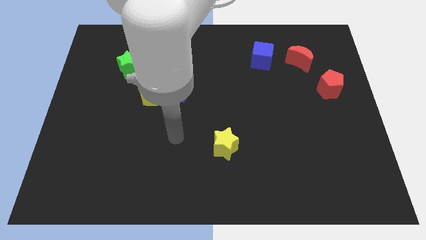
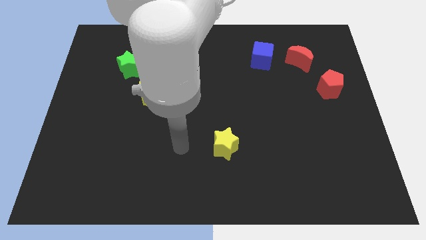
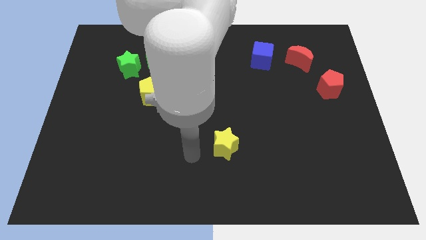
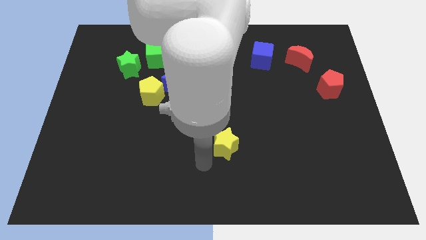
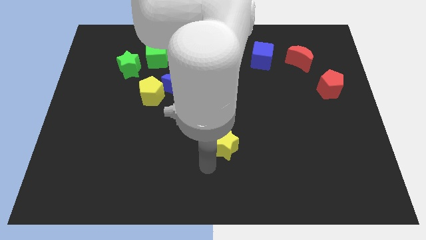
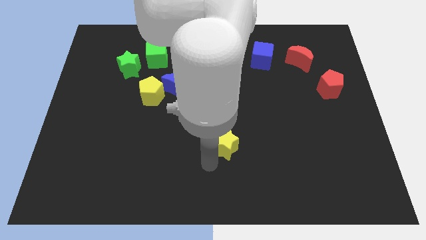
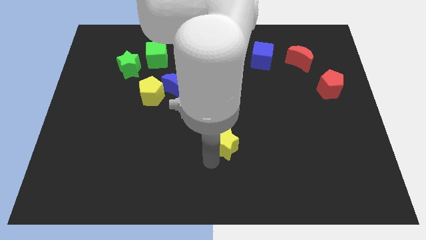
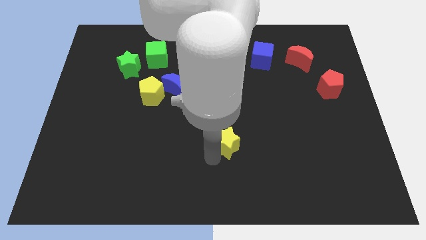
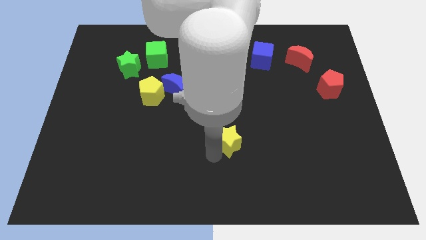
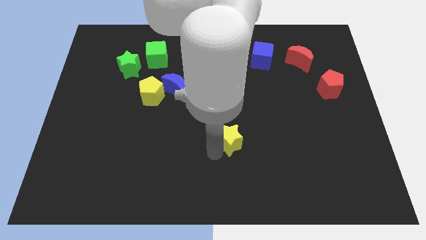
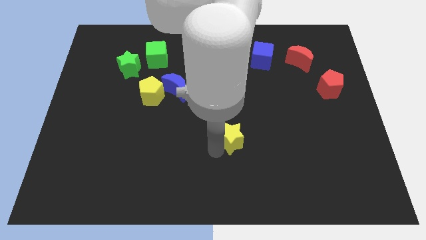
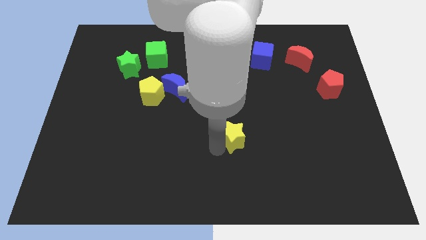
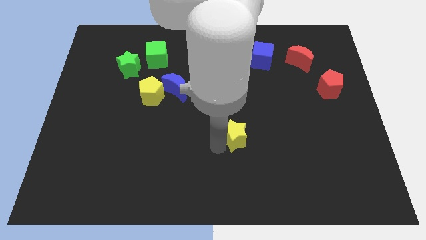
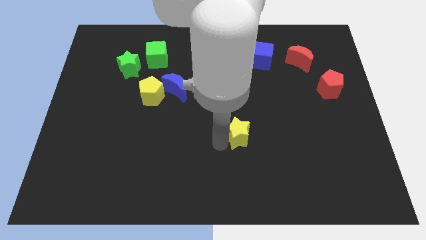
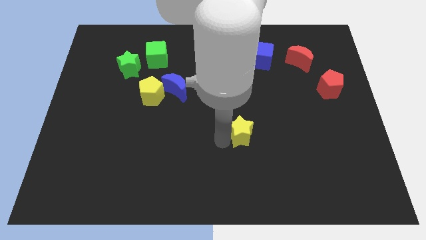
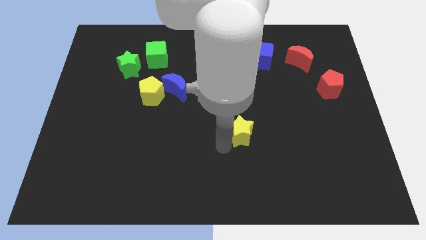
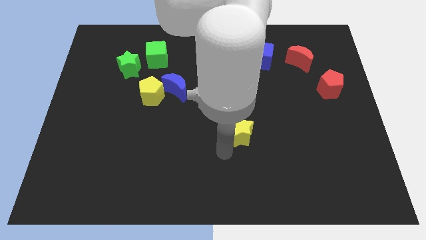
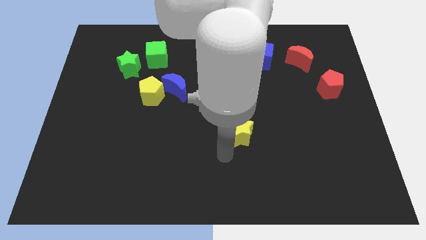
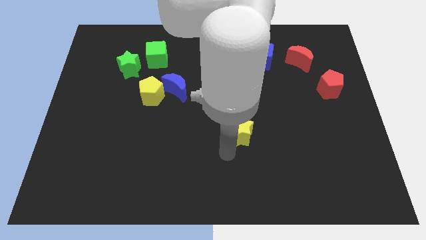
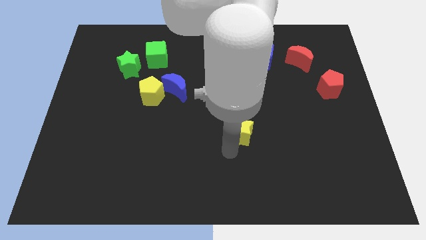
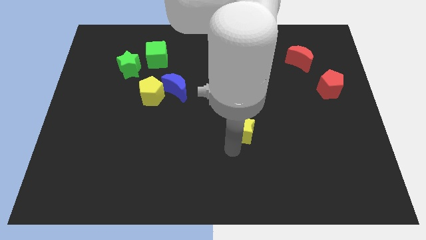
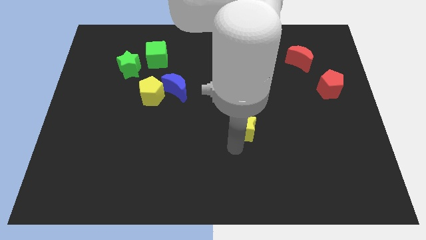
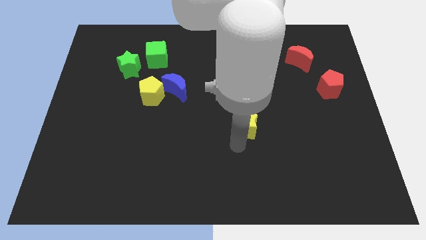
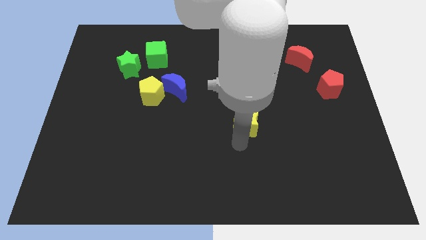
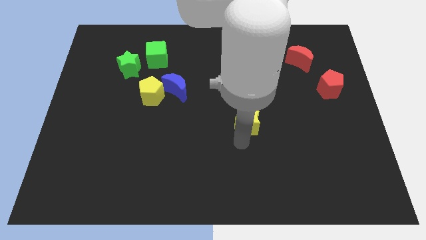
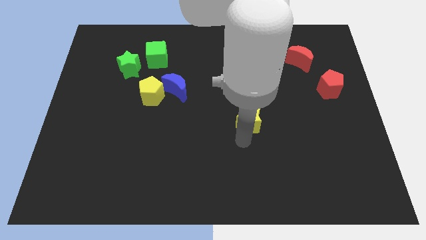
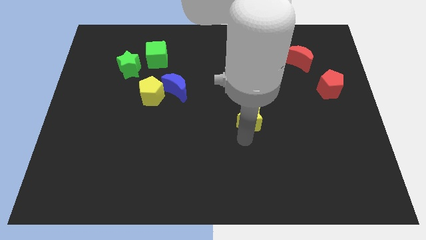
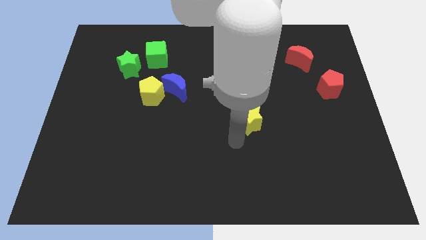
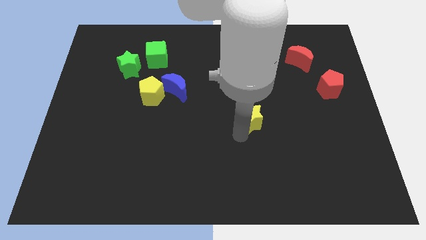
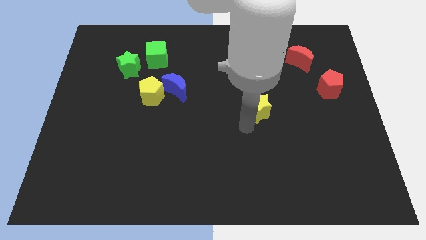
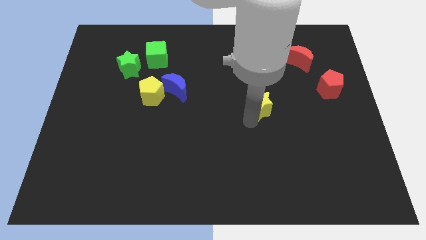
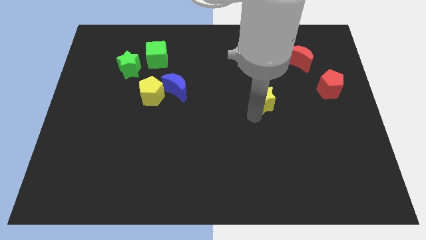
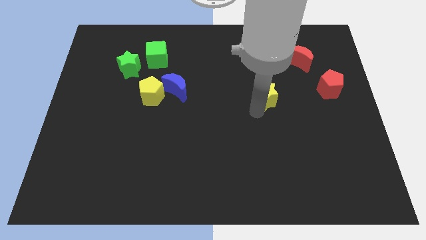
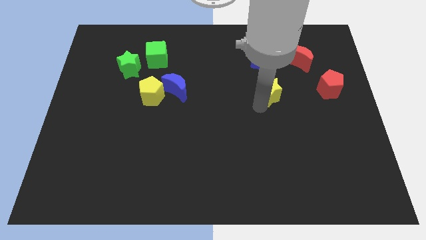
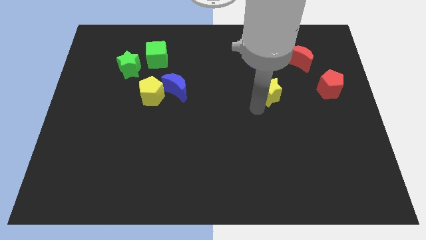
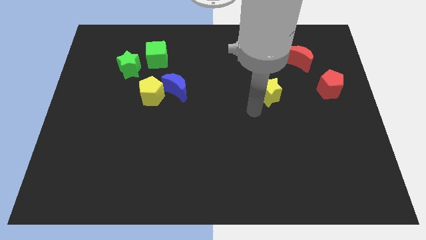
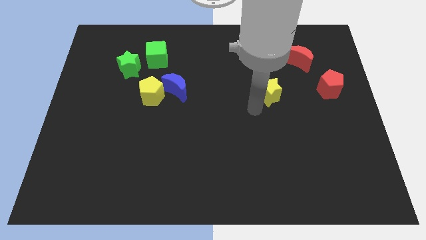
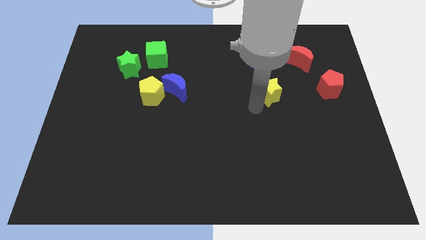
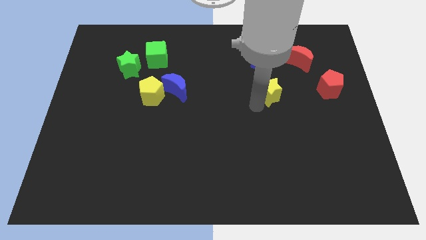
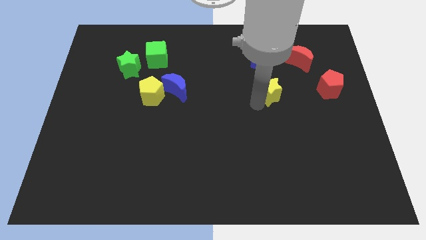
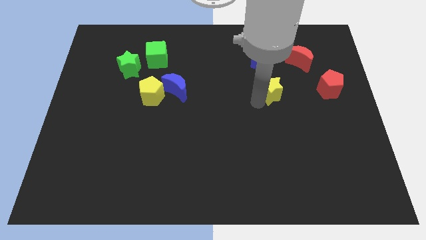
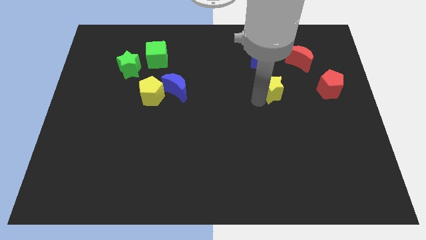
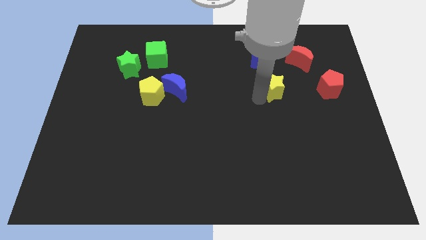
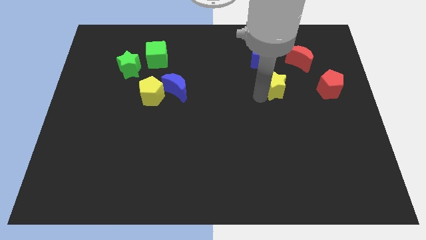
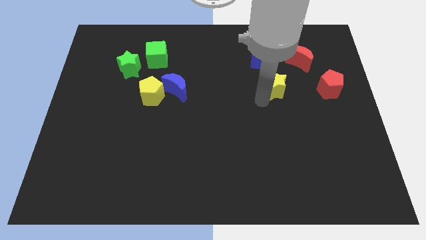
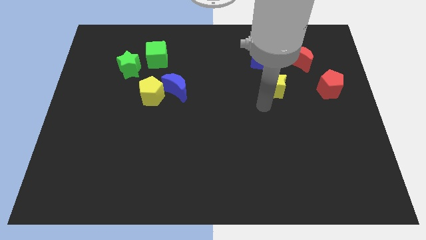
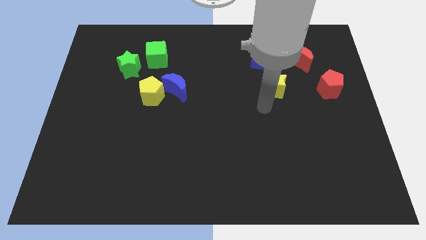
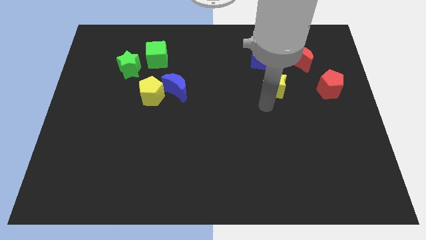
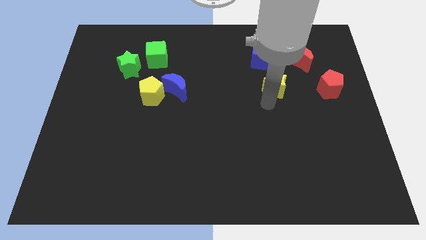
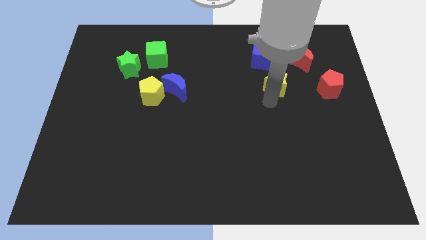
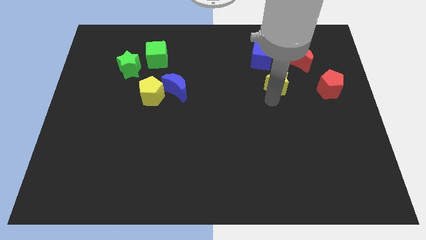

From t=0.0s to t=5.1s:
push the yellow star to the bottom right side of the blue cube

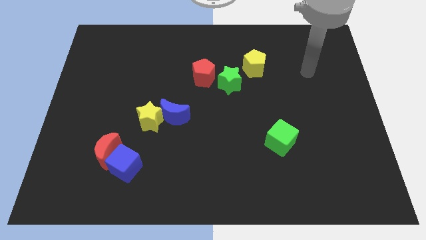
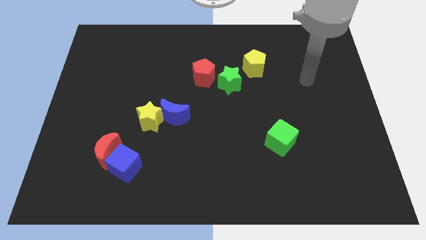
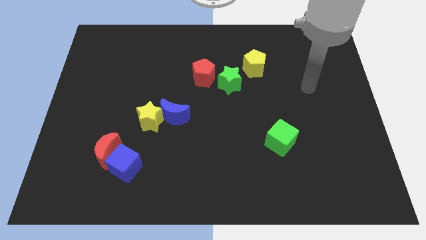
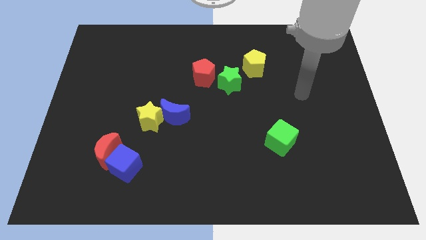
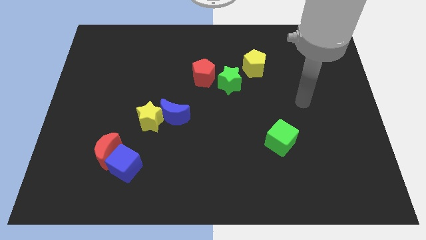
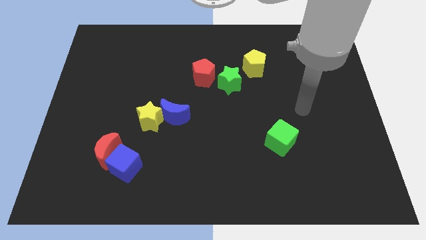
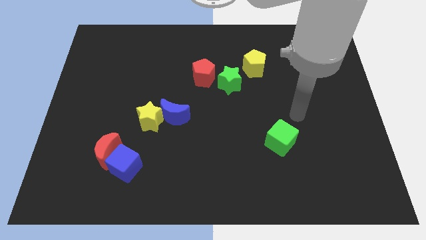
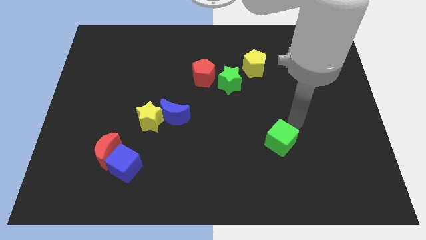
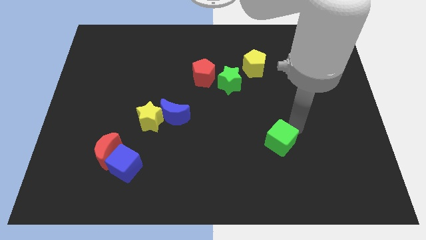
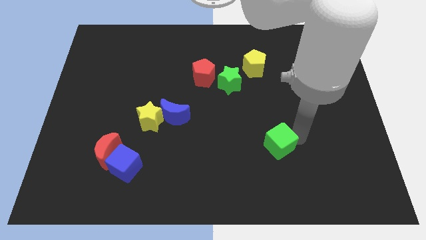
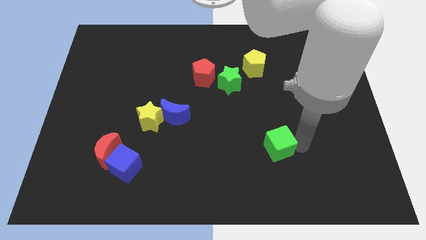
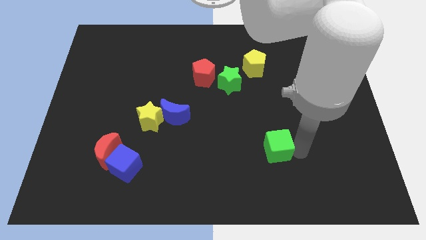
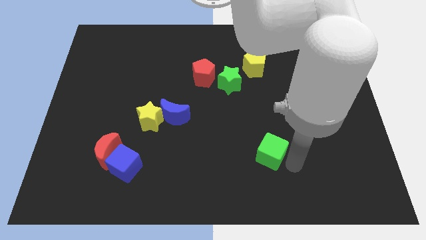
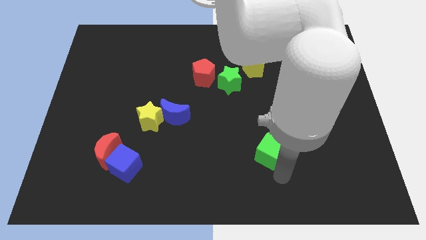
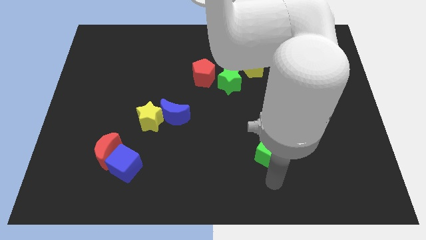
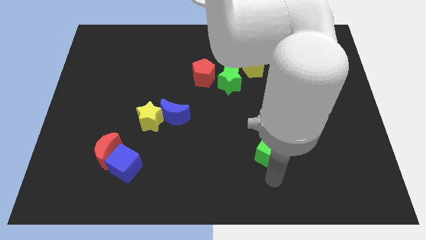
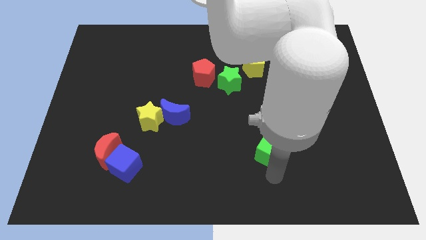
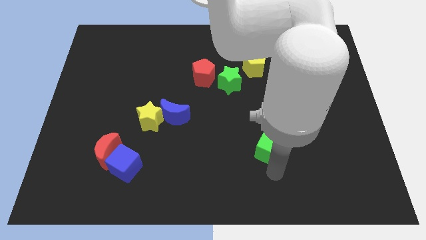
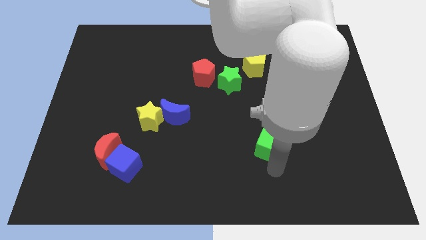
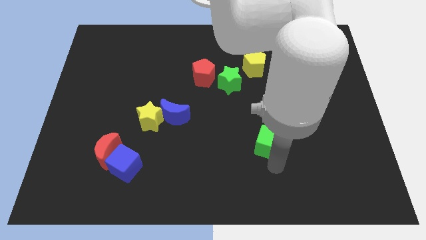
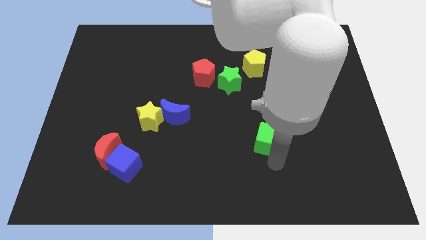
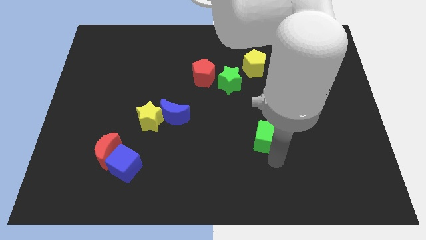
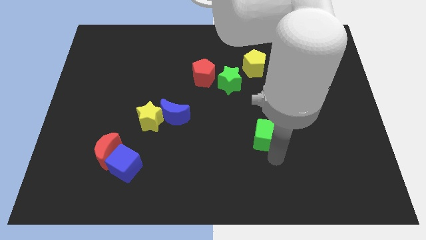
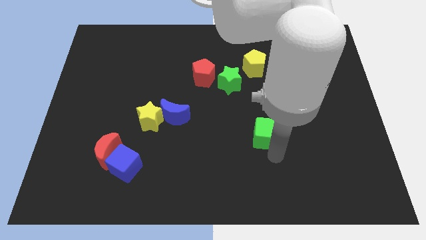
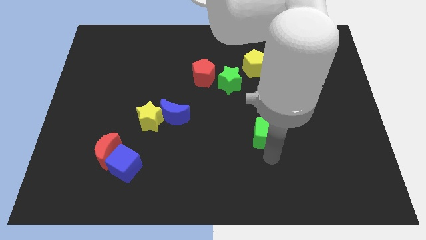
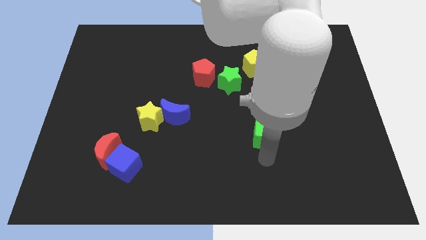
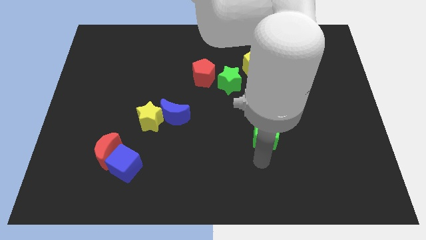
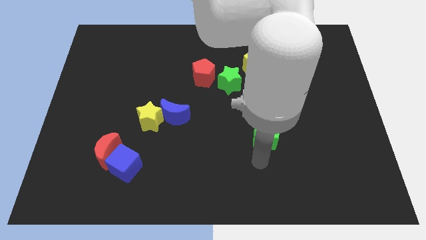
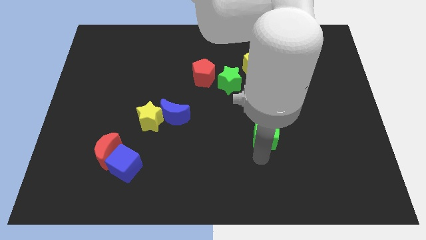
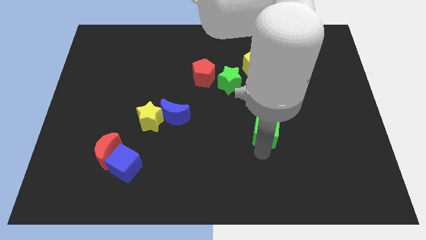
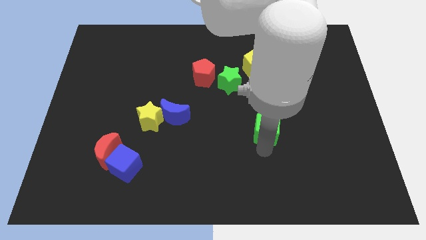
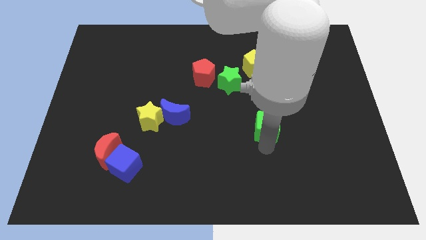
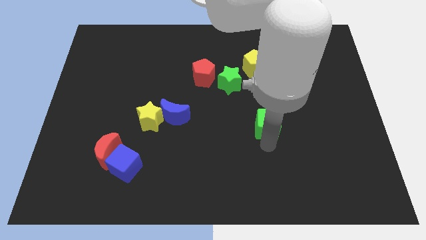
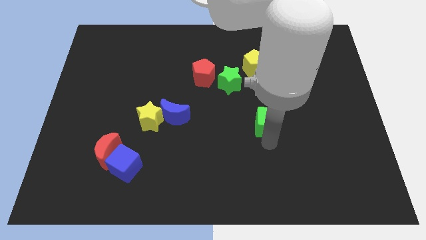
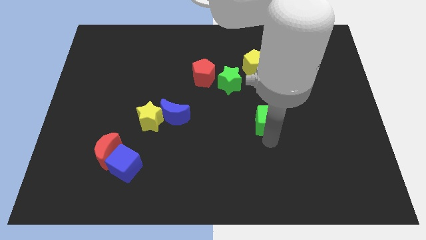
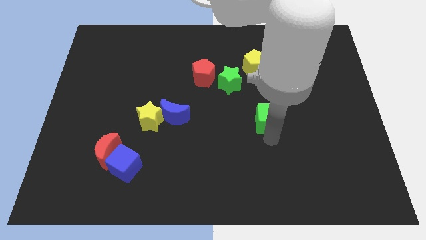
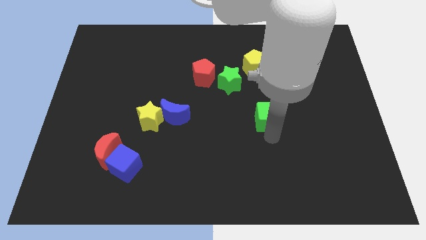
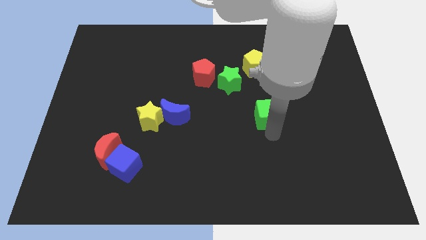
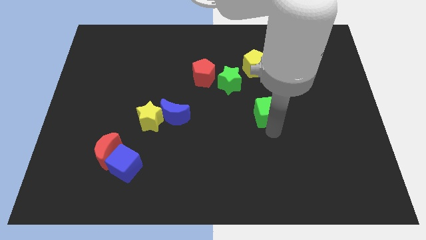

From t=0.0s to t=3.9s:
put the green cube to the bottom right of the green star
